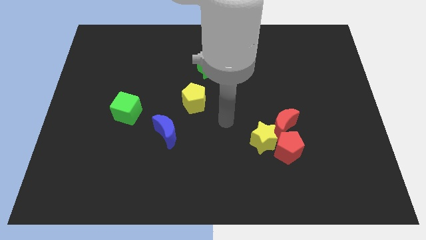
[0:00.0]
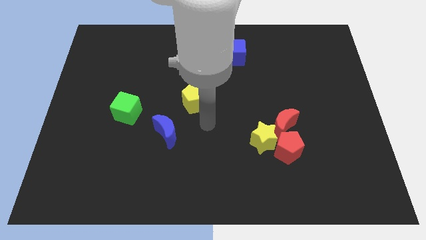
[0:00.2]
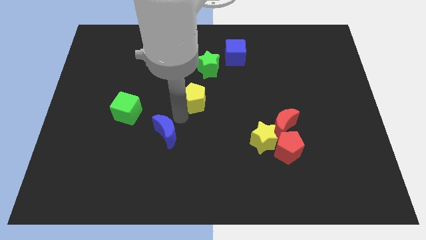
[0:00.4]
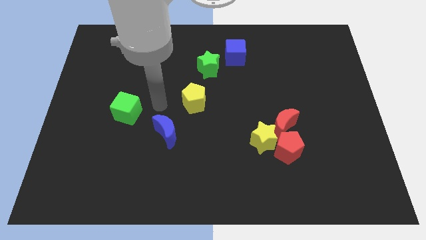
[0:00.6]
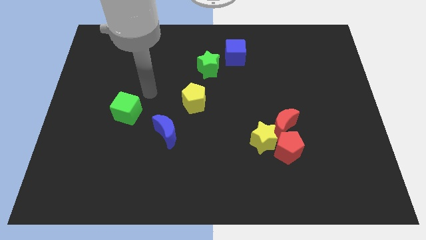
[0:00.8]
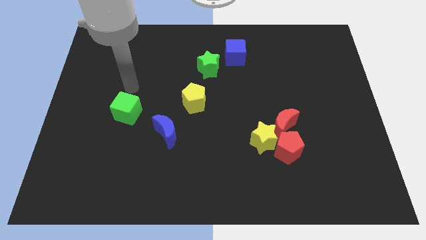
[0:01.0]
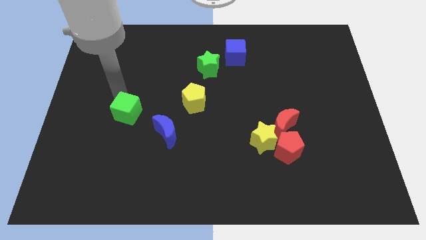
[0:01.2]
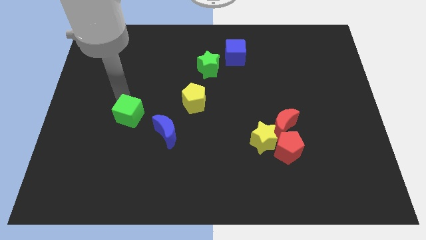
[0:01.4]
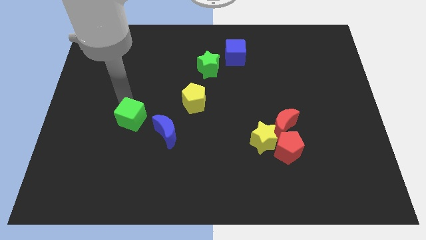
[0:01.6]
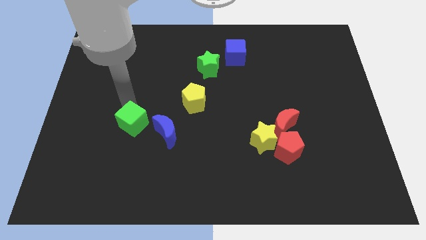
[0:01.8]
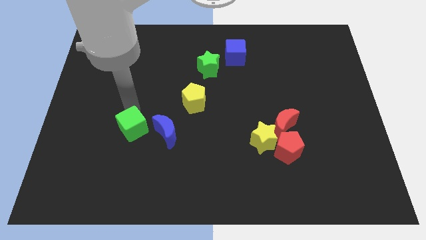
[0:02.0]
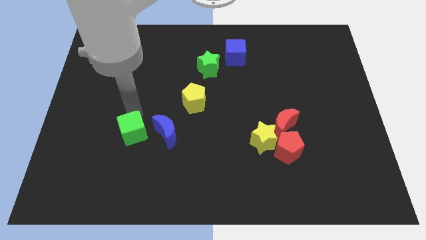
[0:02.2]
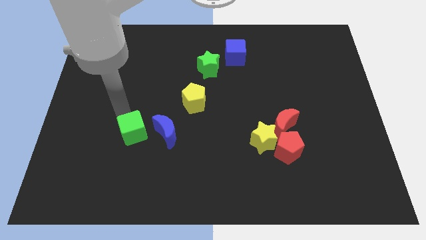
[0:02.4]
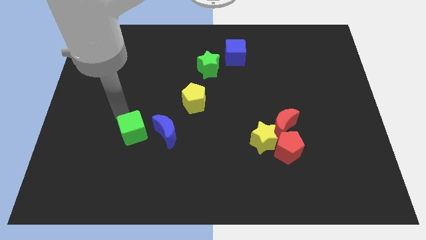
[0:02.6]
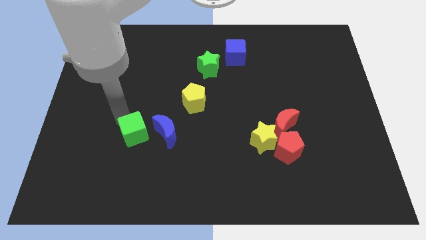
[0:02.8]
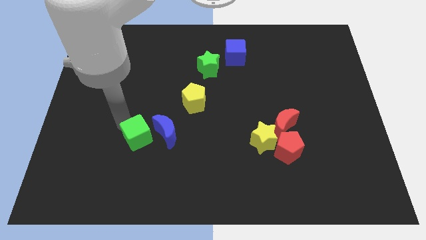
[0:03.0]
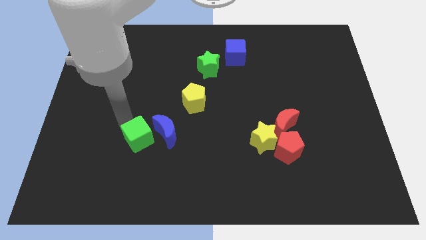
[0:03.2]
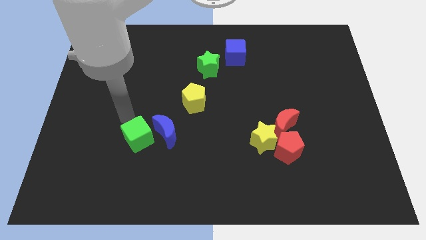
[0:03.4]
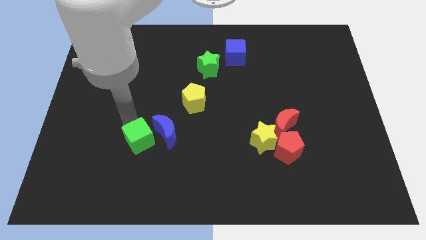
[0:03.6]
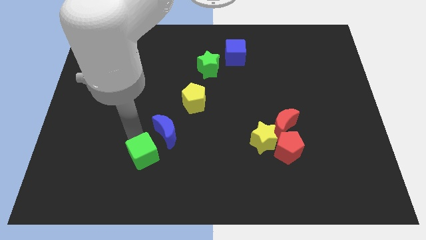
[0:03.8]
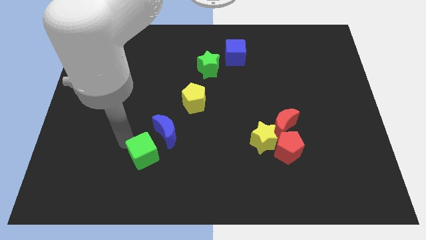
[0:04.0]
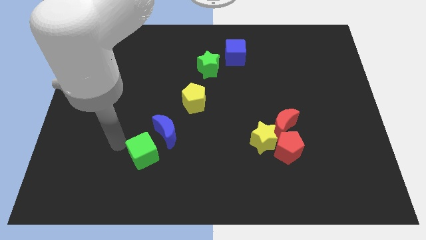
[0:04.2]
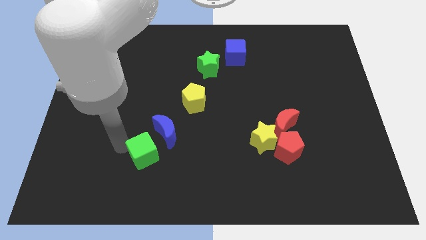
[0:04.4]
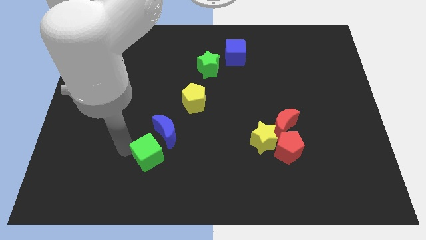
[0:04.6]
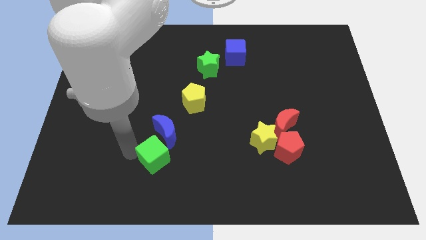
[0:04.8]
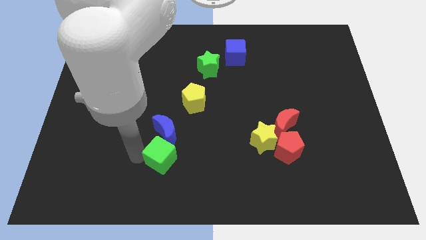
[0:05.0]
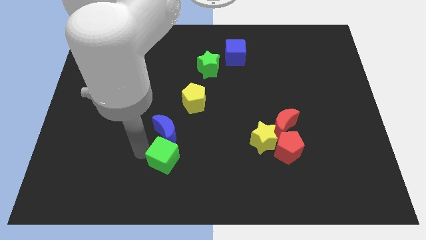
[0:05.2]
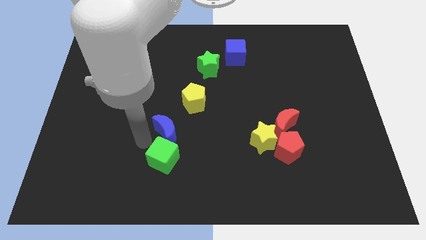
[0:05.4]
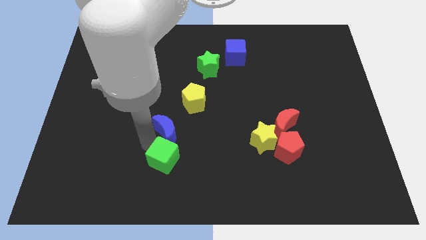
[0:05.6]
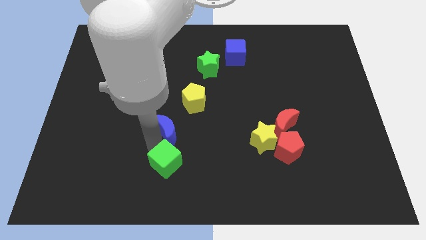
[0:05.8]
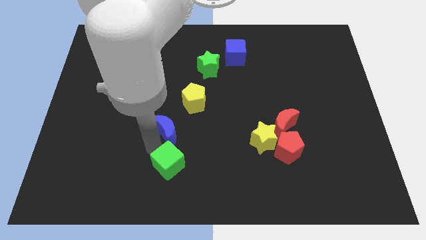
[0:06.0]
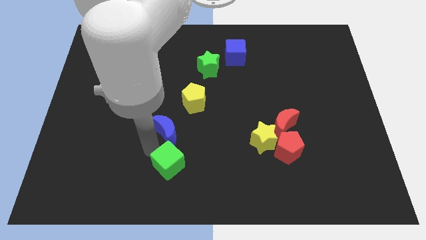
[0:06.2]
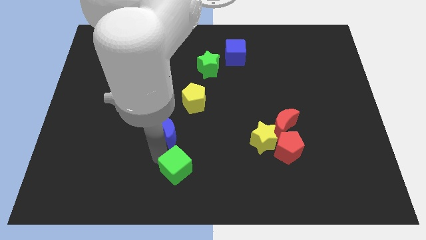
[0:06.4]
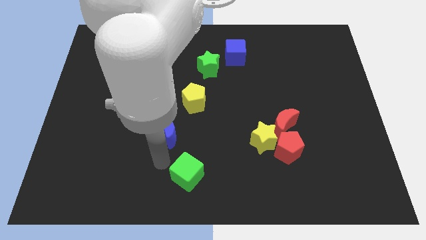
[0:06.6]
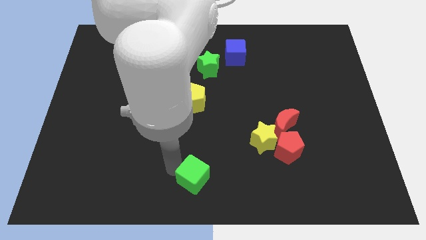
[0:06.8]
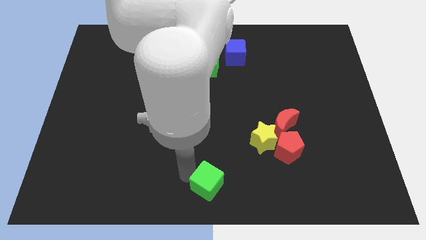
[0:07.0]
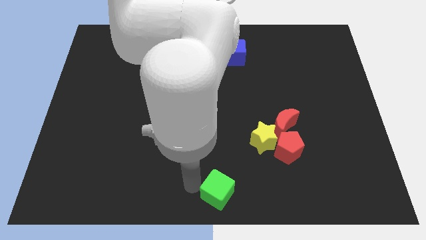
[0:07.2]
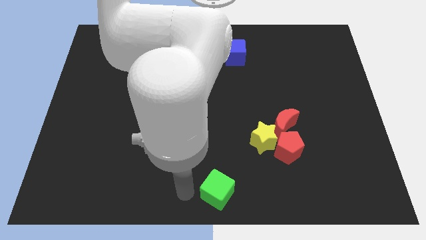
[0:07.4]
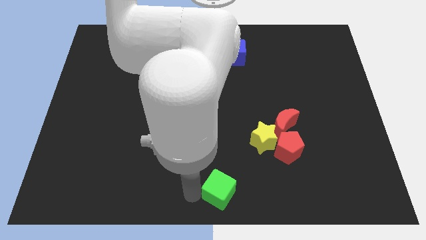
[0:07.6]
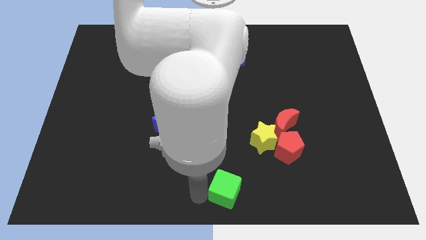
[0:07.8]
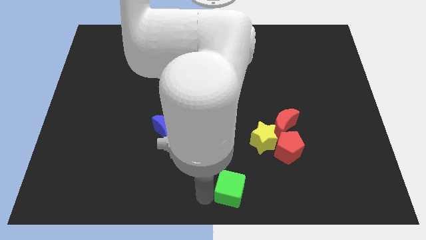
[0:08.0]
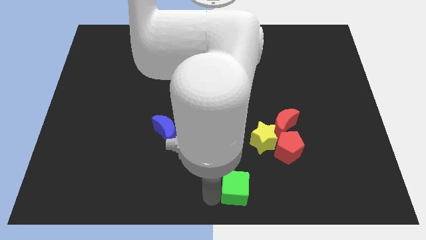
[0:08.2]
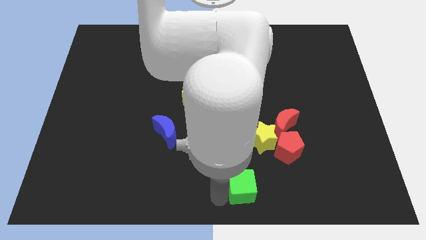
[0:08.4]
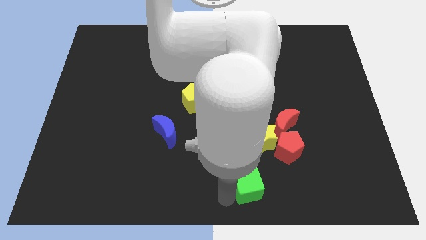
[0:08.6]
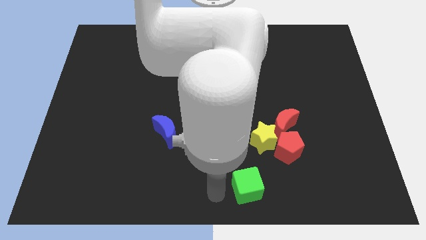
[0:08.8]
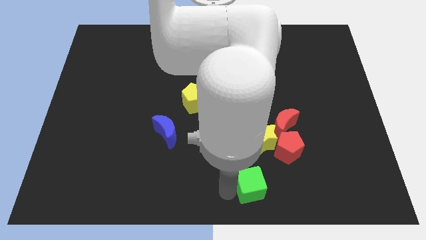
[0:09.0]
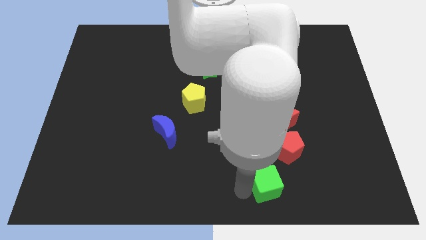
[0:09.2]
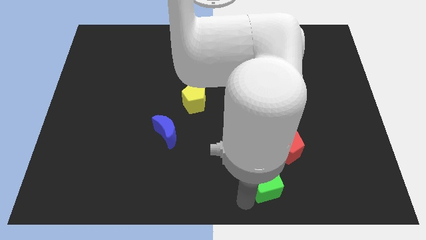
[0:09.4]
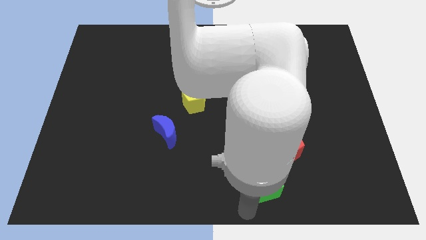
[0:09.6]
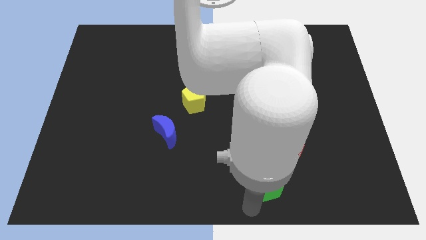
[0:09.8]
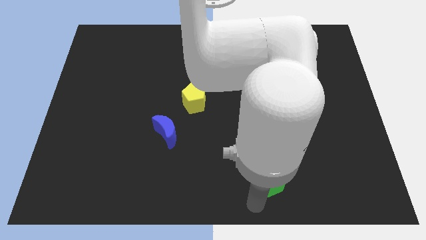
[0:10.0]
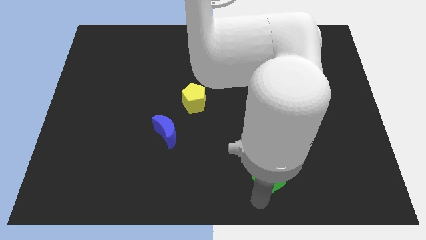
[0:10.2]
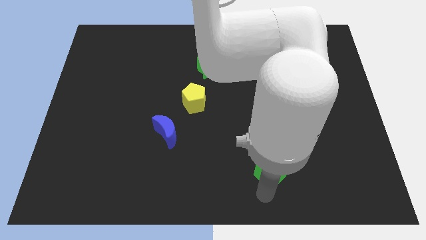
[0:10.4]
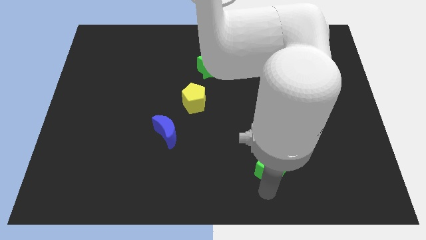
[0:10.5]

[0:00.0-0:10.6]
push the green cube next to the red pentagon
